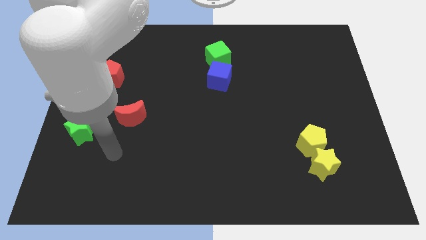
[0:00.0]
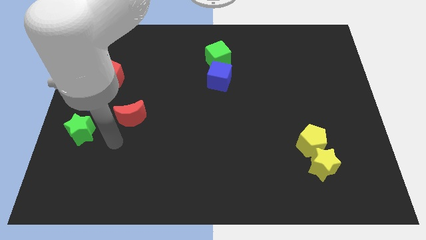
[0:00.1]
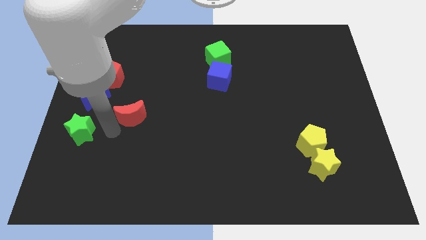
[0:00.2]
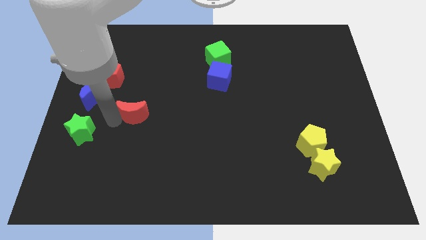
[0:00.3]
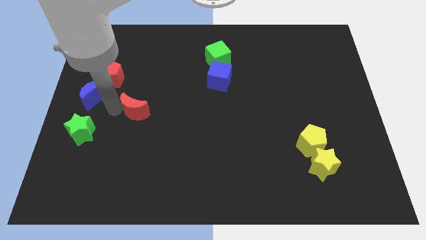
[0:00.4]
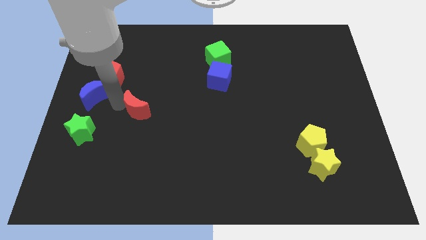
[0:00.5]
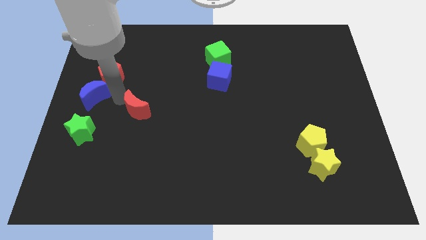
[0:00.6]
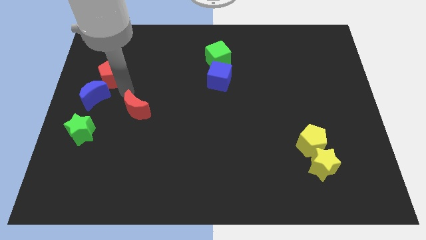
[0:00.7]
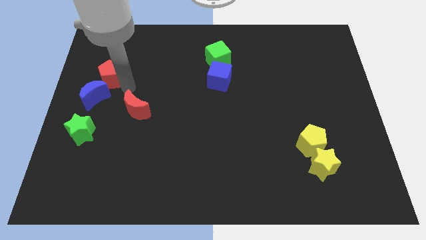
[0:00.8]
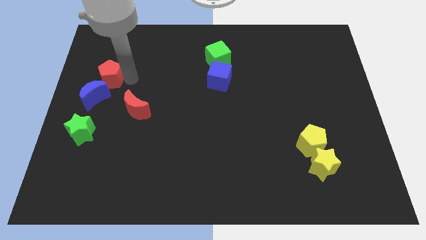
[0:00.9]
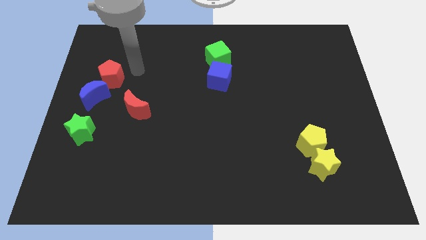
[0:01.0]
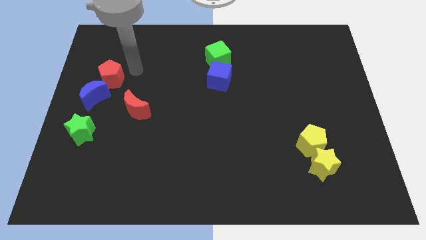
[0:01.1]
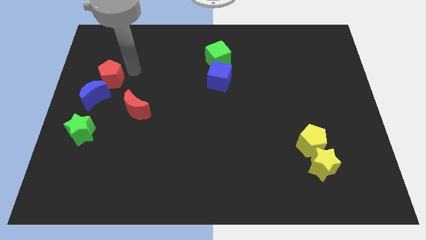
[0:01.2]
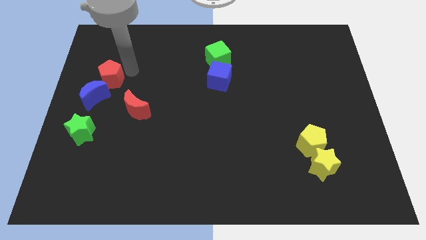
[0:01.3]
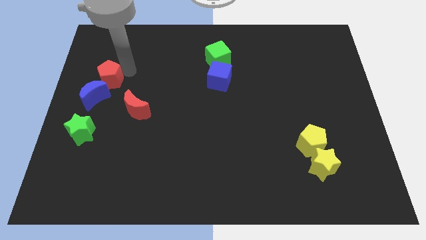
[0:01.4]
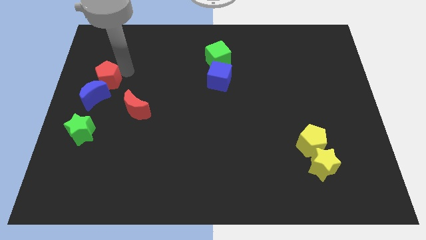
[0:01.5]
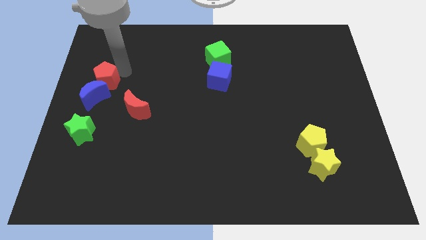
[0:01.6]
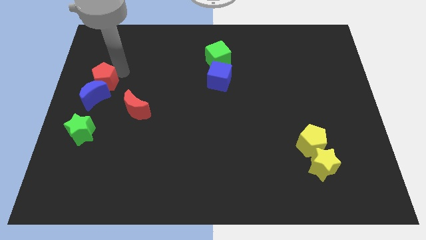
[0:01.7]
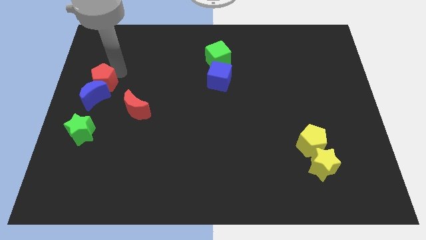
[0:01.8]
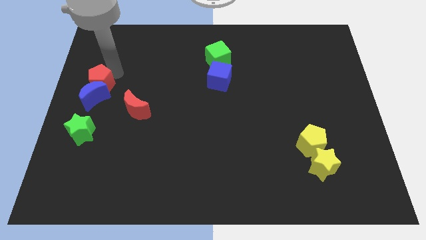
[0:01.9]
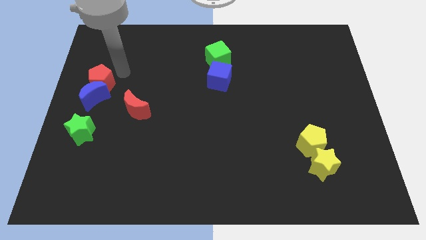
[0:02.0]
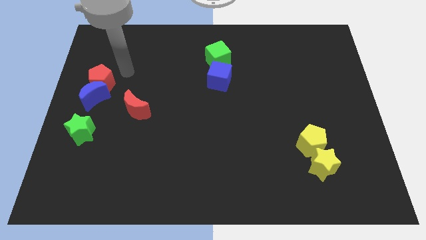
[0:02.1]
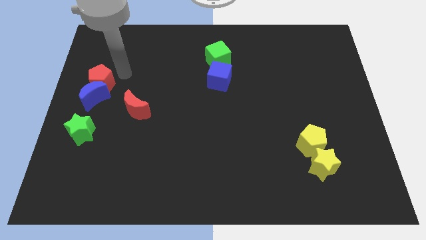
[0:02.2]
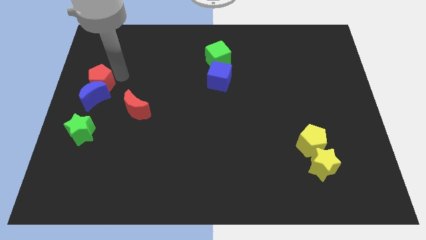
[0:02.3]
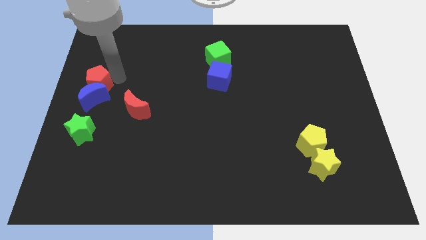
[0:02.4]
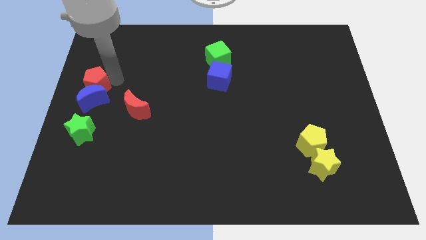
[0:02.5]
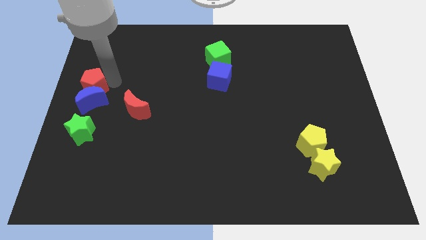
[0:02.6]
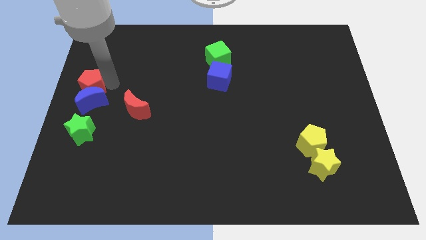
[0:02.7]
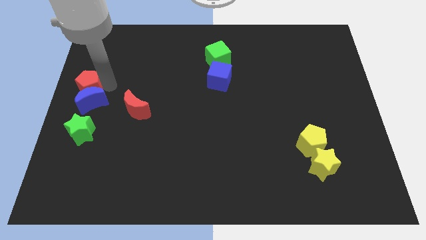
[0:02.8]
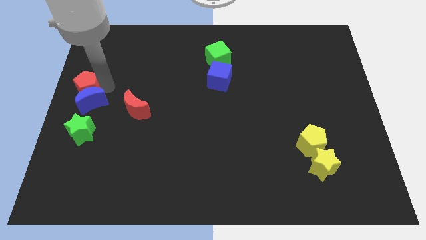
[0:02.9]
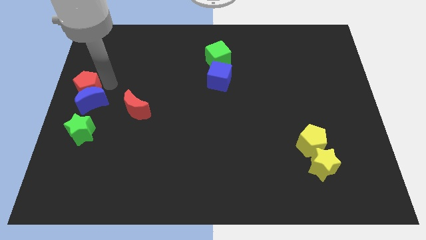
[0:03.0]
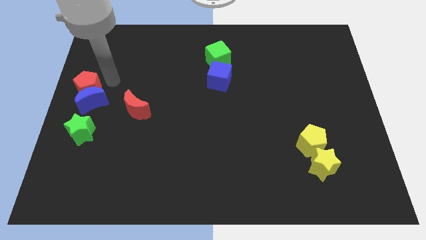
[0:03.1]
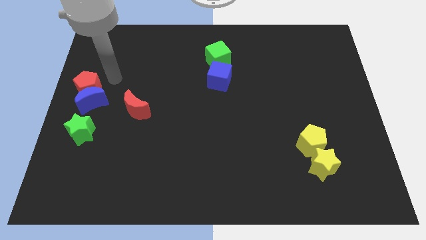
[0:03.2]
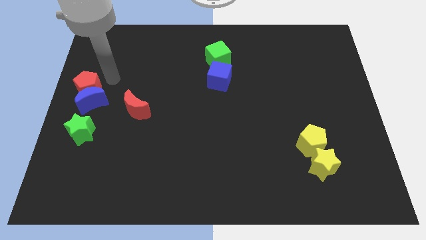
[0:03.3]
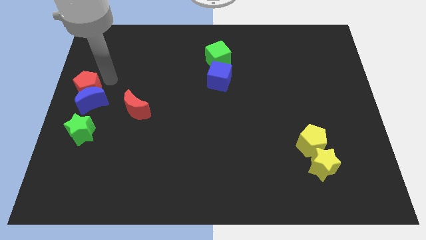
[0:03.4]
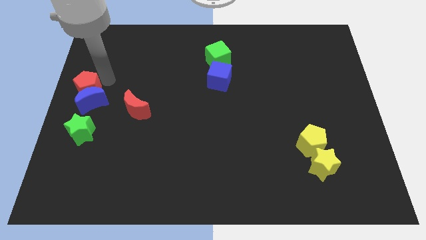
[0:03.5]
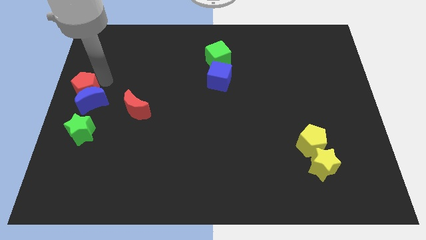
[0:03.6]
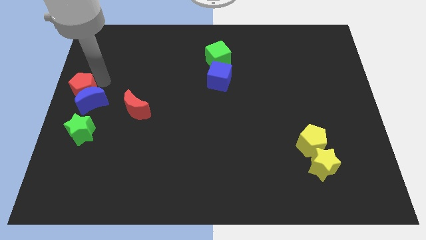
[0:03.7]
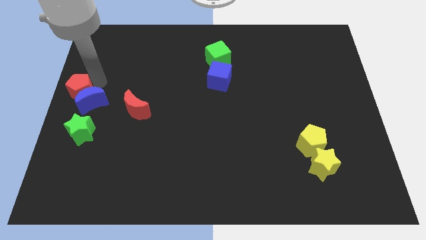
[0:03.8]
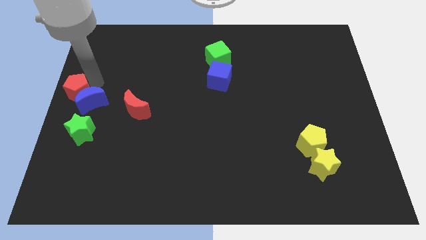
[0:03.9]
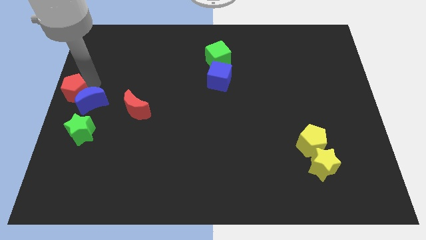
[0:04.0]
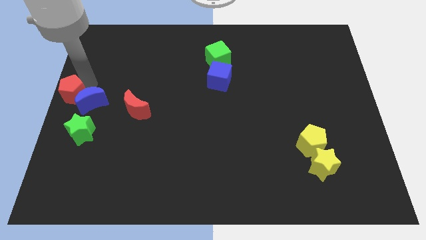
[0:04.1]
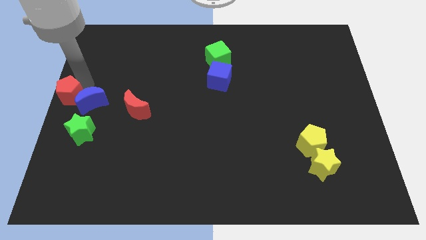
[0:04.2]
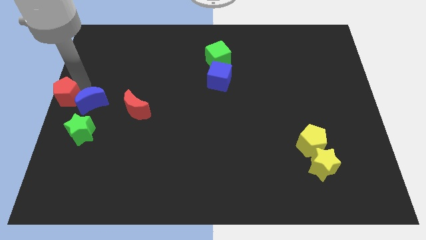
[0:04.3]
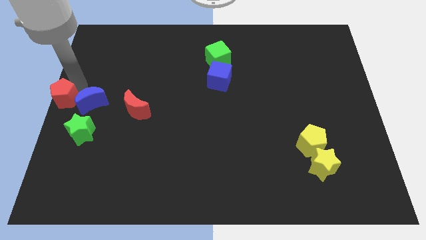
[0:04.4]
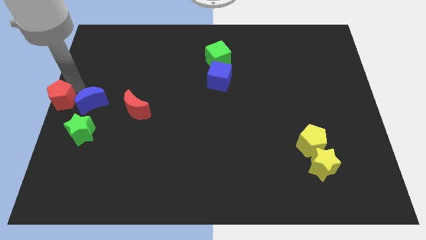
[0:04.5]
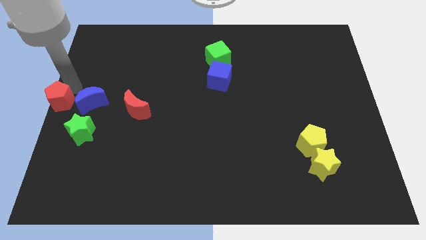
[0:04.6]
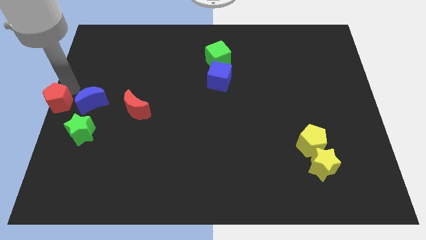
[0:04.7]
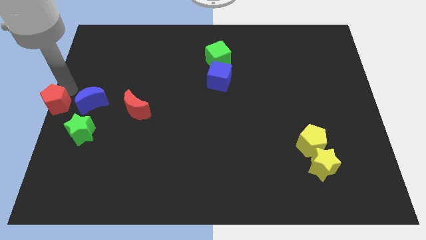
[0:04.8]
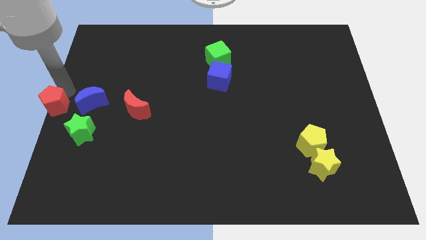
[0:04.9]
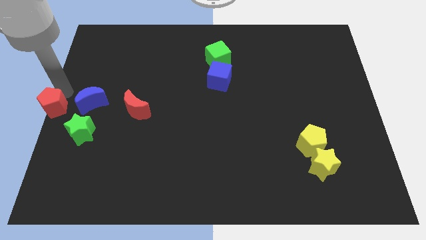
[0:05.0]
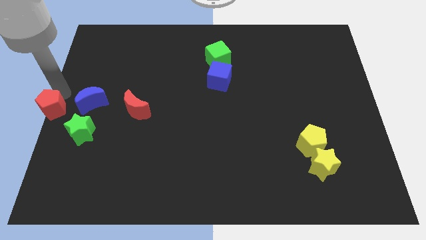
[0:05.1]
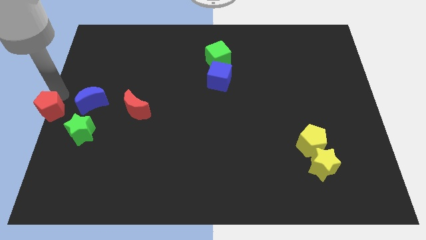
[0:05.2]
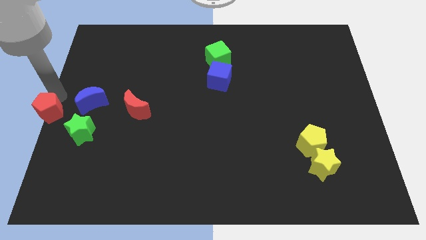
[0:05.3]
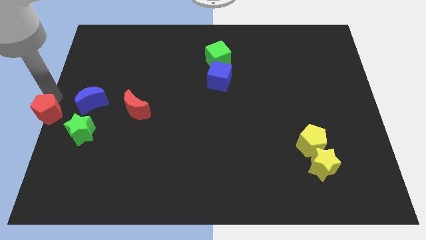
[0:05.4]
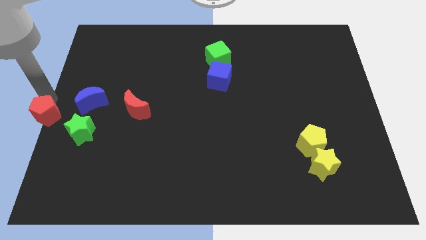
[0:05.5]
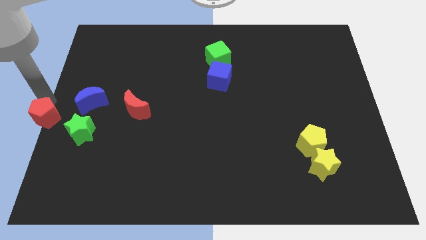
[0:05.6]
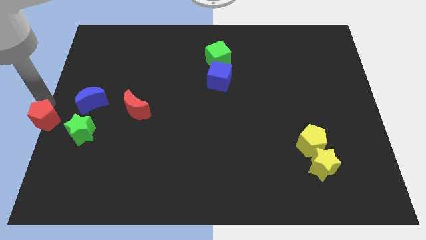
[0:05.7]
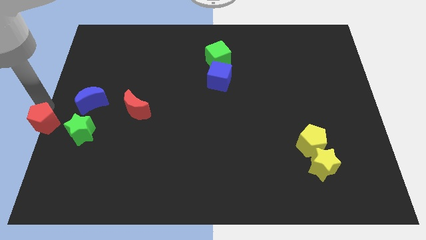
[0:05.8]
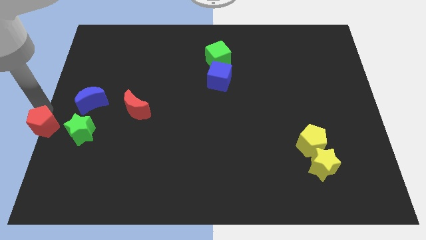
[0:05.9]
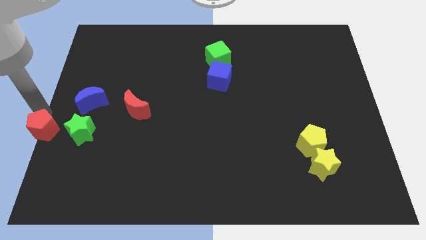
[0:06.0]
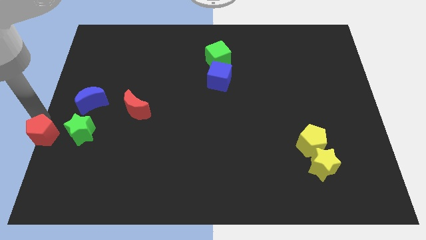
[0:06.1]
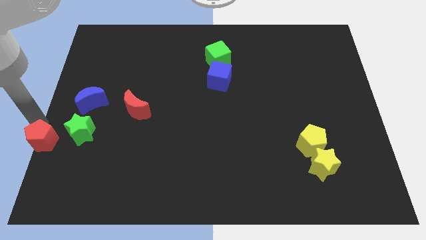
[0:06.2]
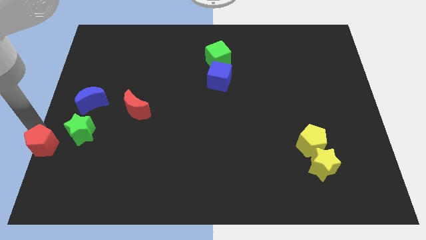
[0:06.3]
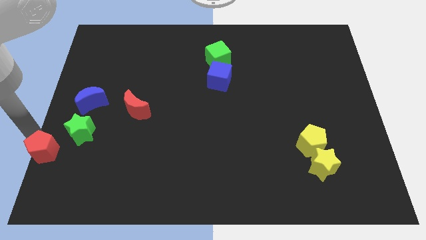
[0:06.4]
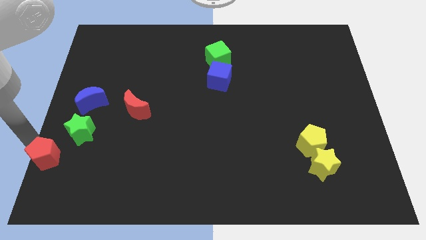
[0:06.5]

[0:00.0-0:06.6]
put the red pentagon to the bottom left
